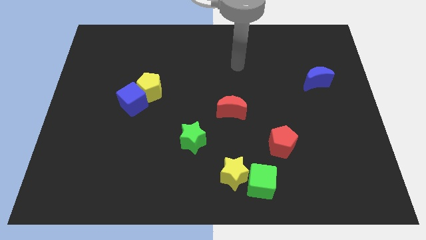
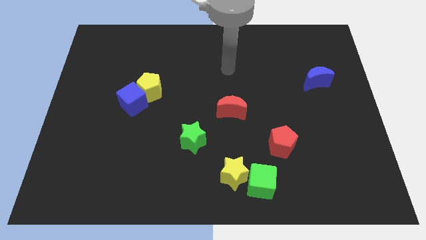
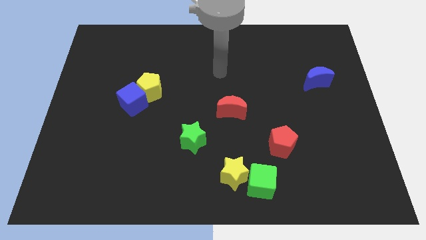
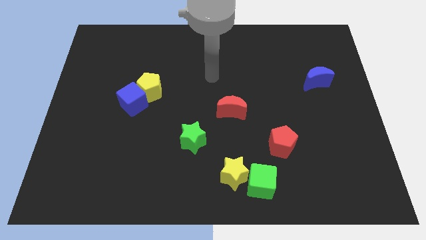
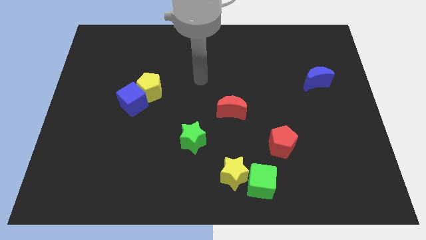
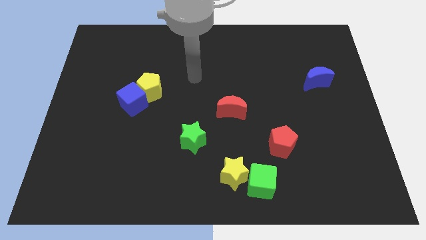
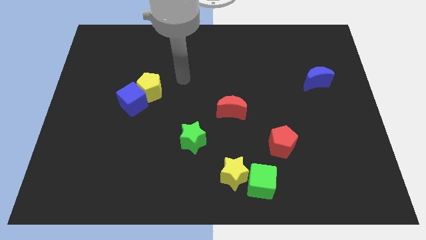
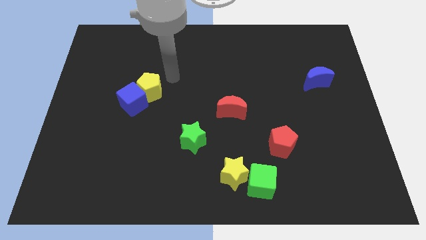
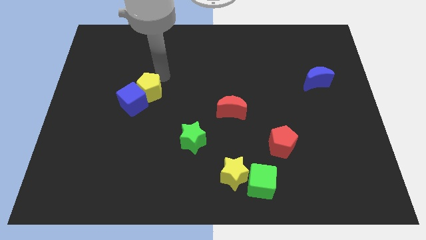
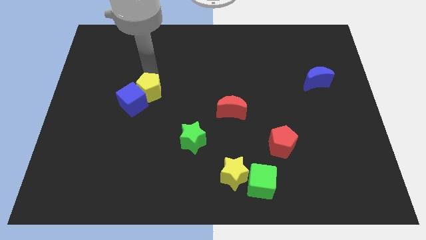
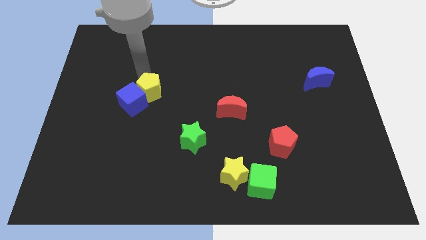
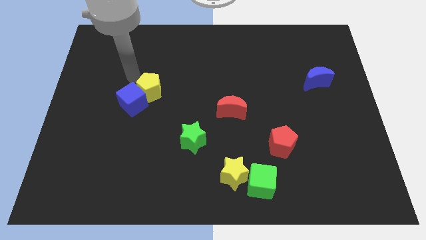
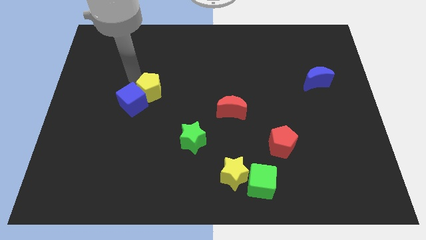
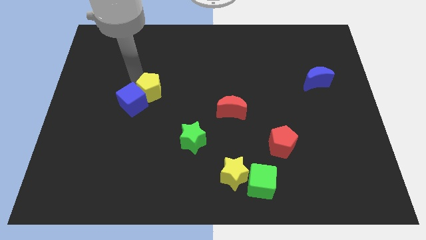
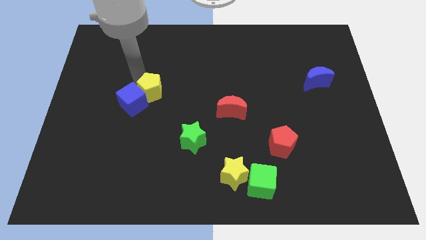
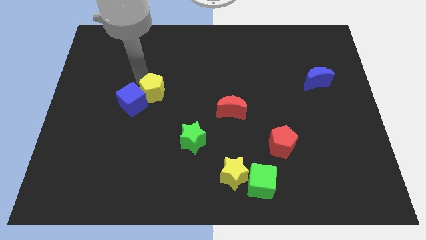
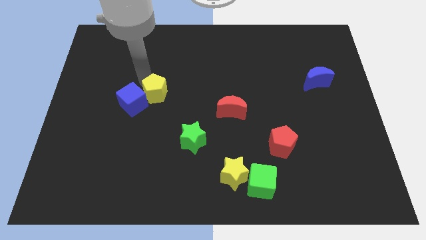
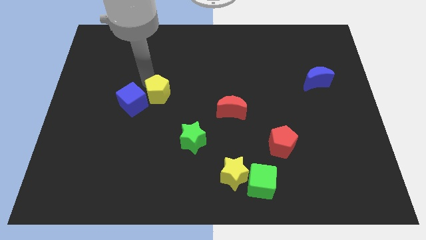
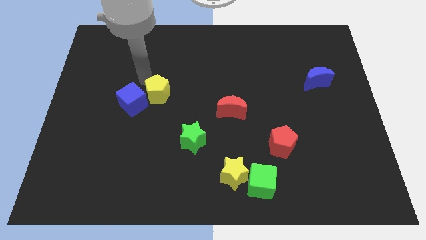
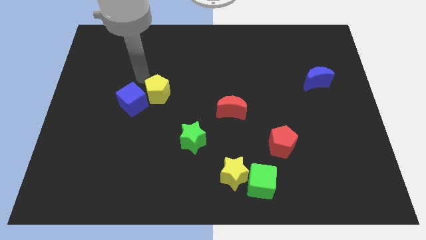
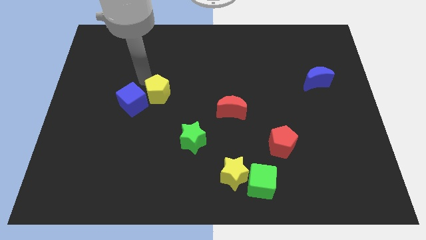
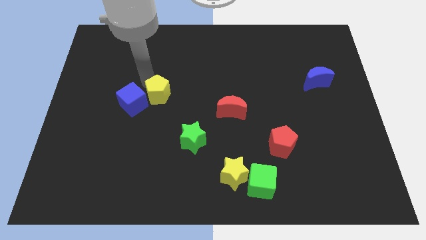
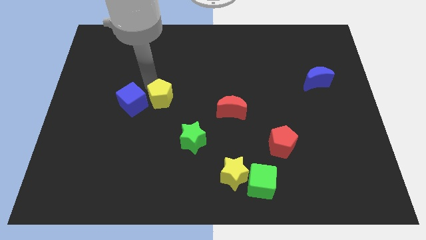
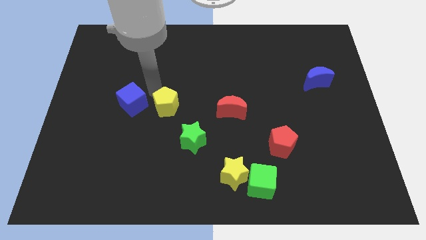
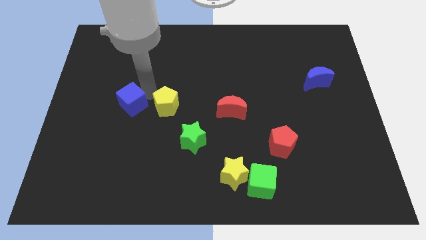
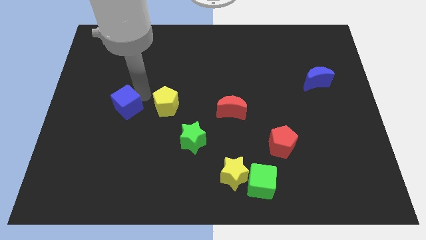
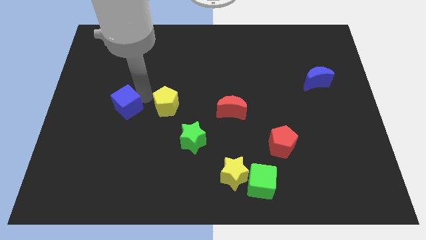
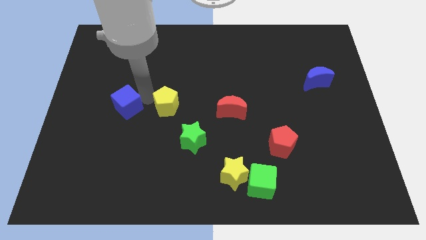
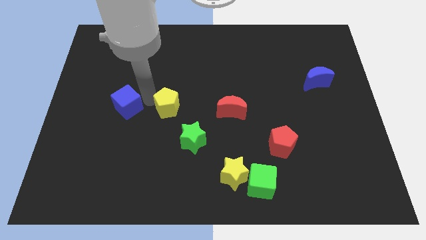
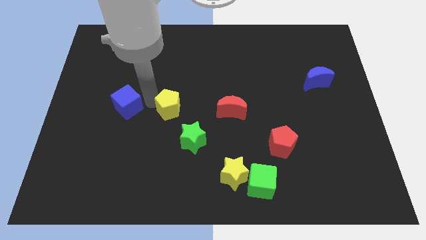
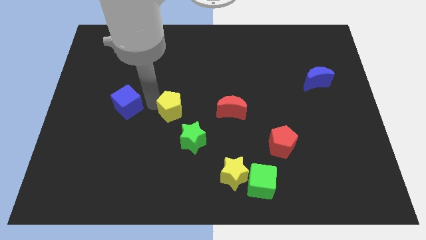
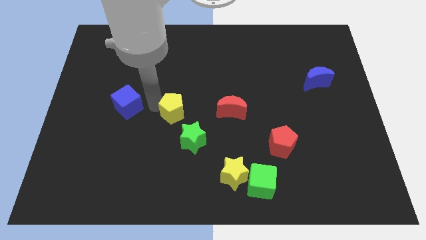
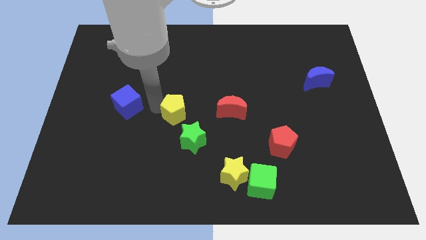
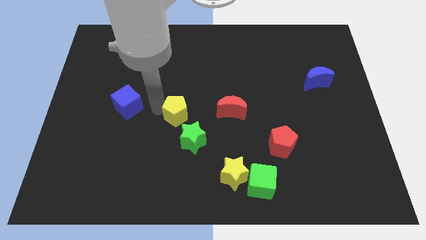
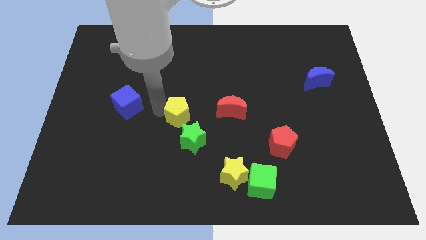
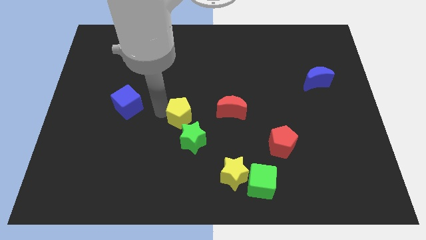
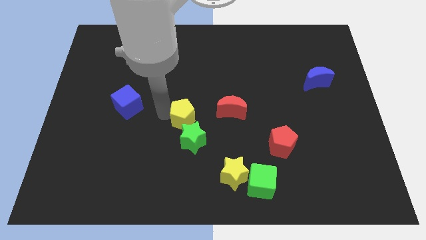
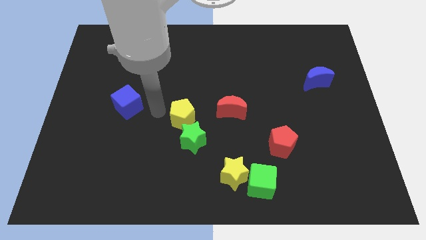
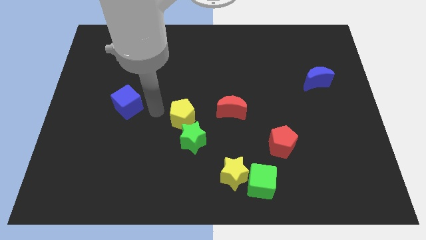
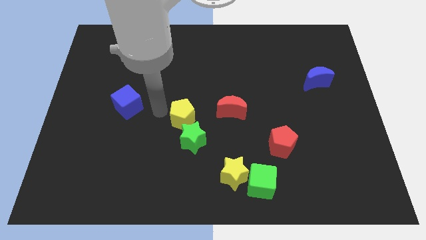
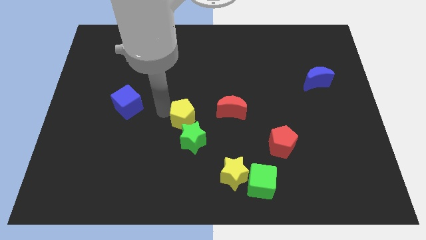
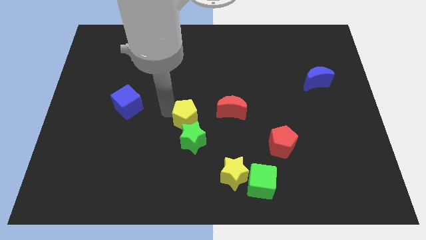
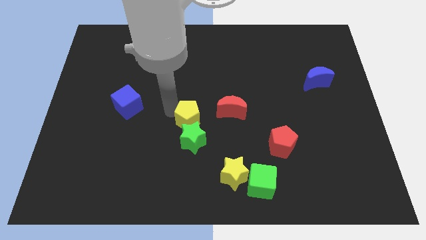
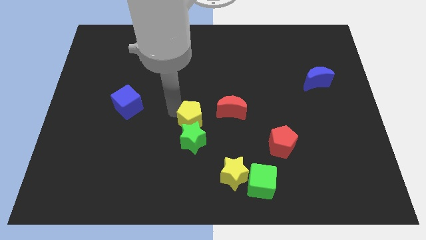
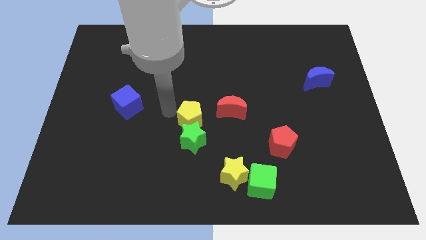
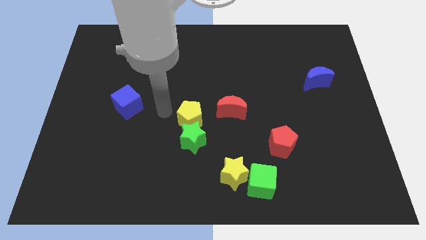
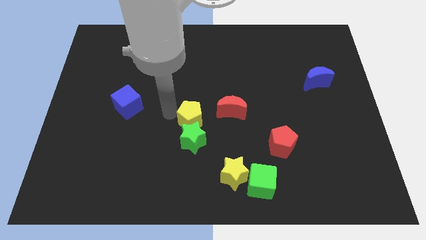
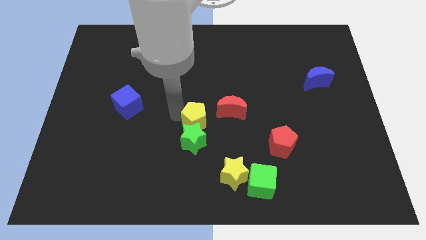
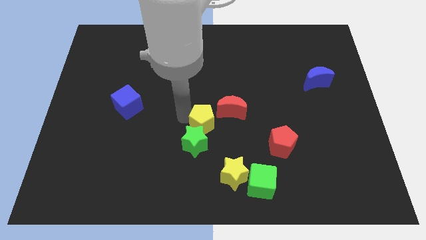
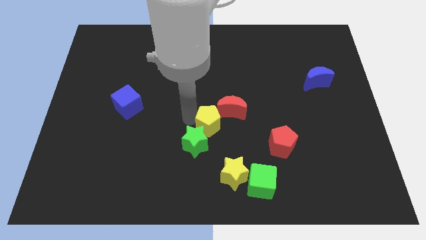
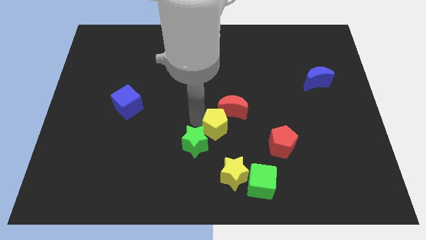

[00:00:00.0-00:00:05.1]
slide the yellow pentagon above the yellow star

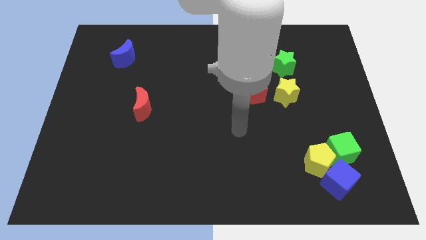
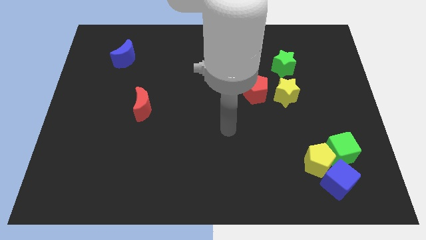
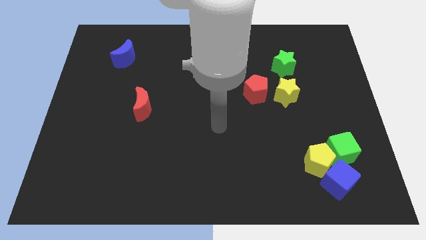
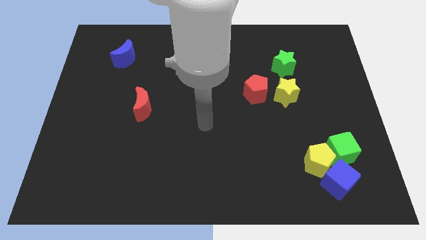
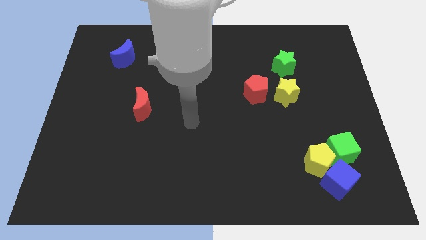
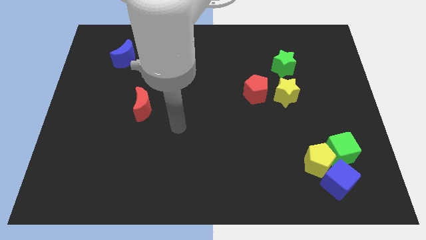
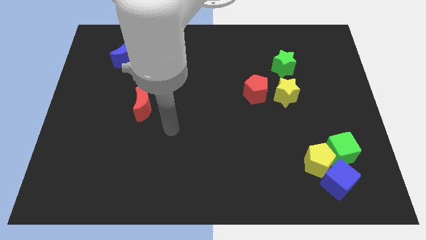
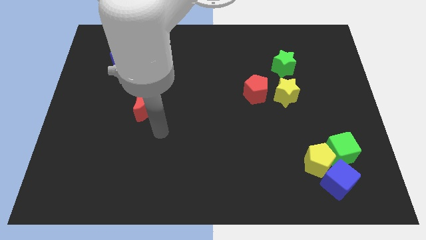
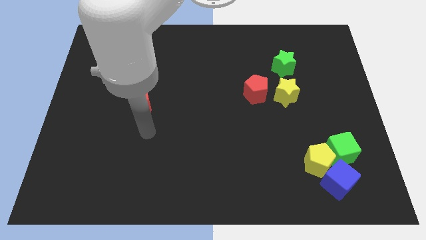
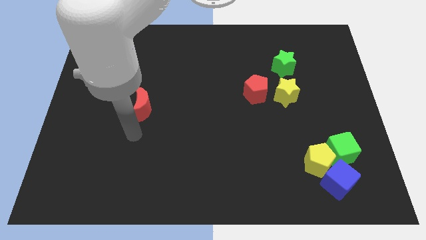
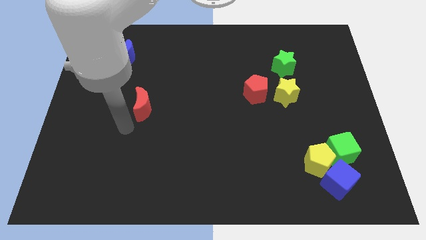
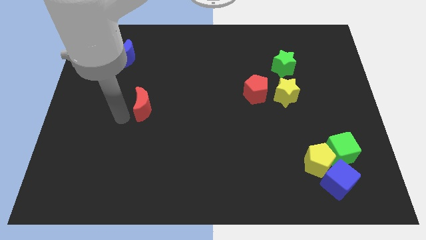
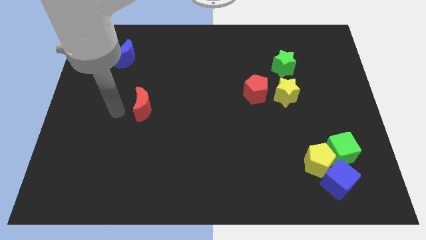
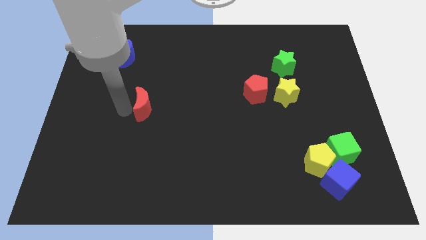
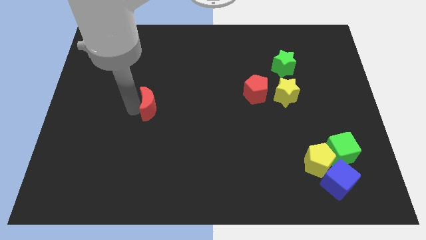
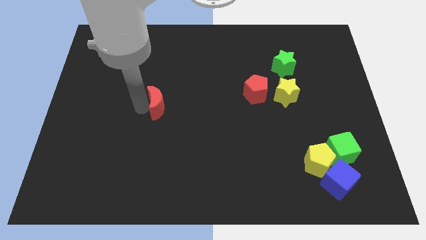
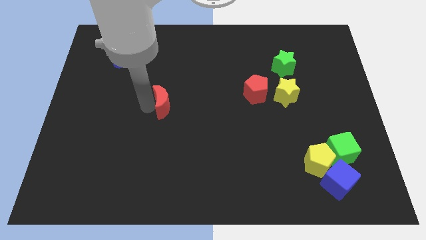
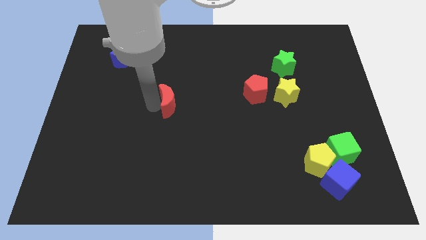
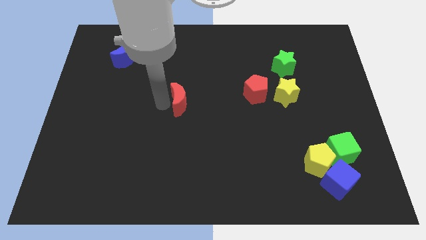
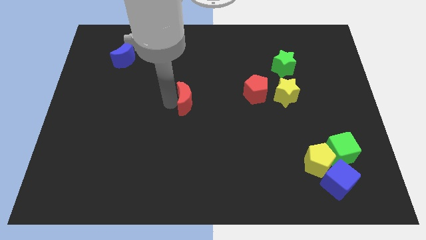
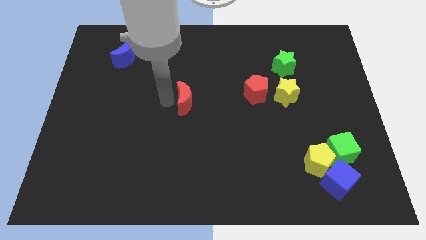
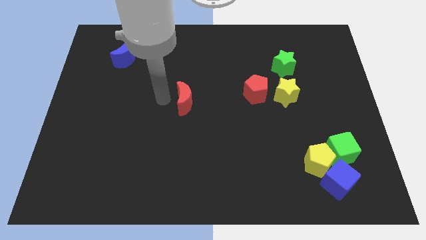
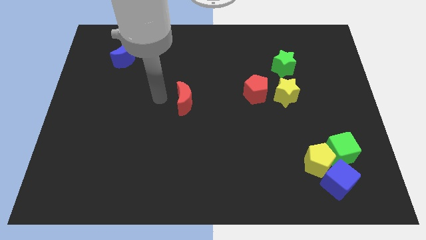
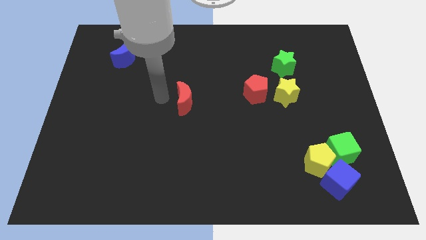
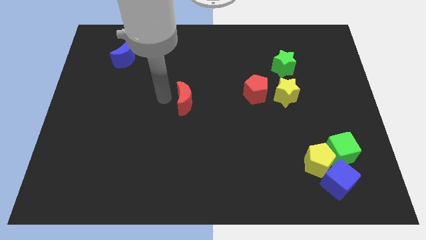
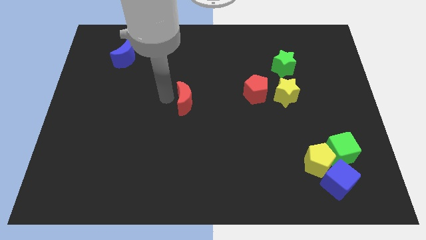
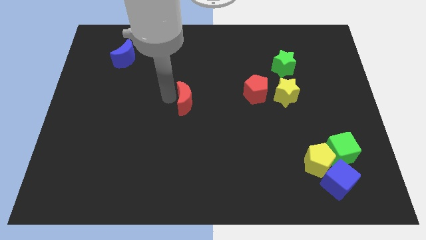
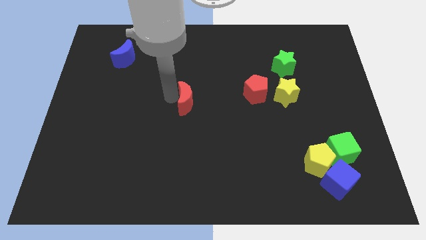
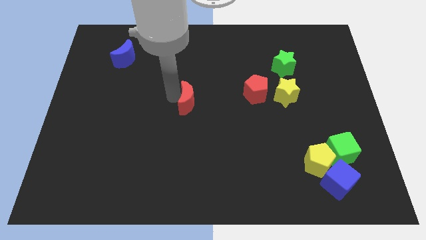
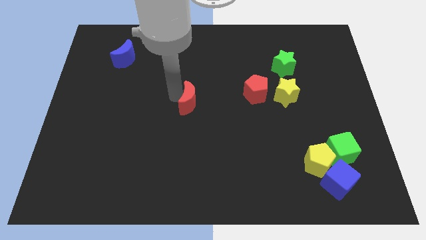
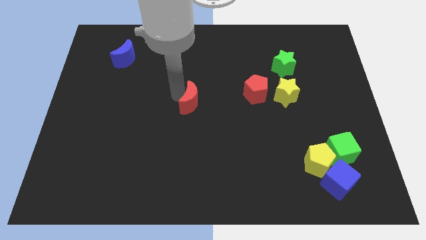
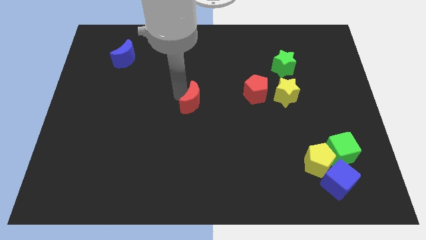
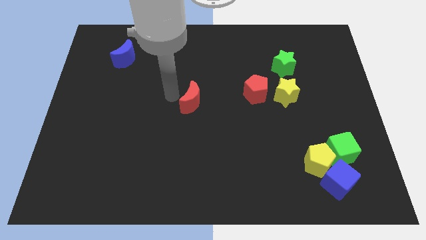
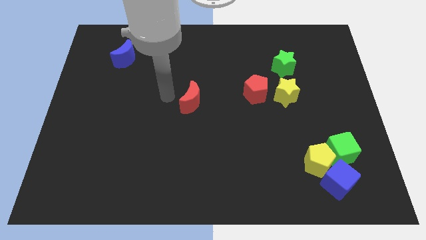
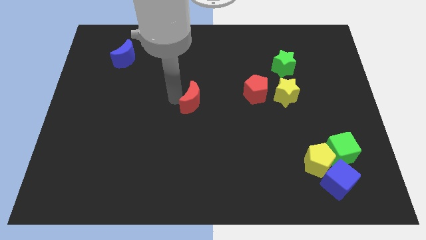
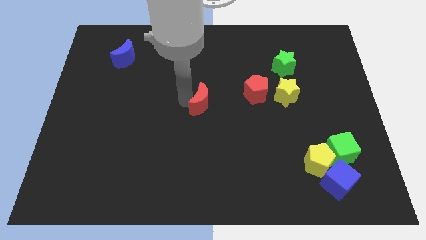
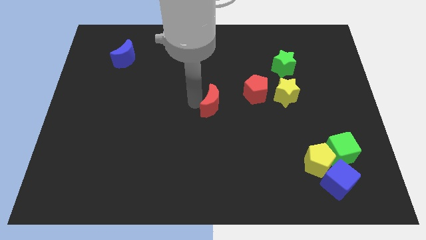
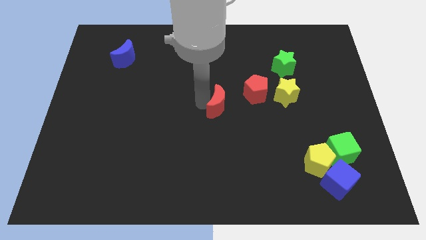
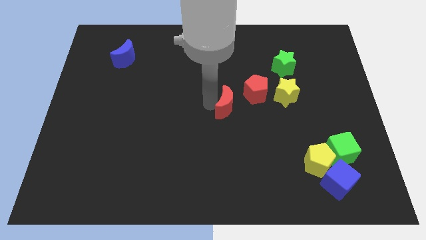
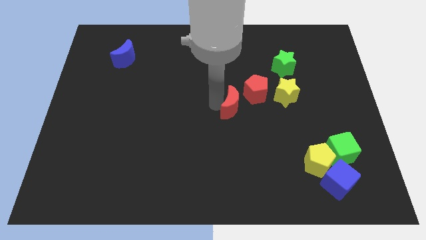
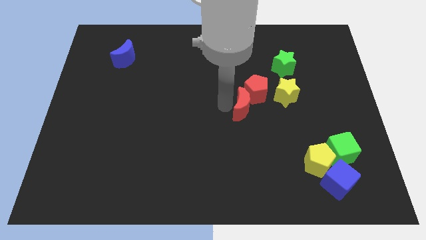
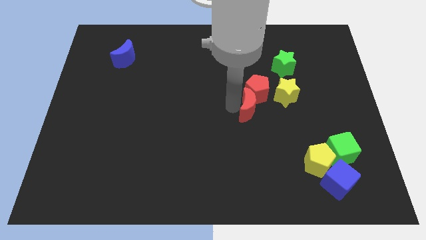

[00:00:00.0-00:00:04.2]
slide the red moon diagonally down and to the left of the yellow star
